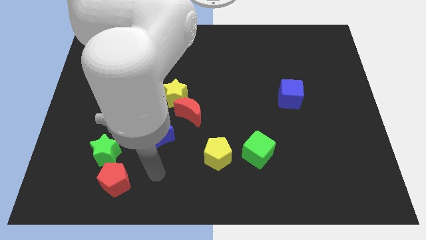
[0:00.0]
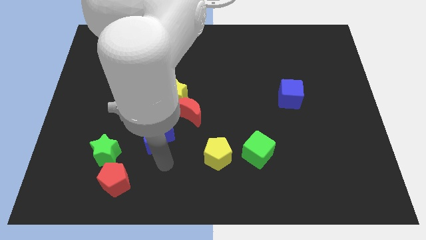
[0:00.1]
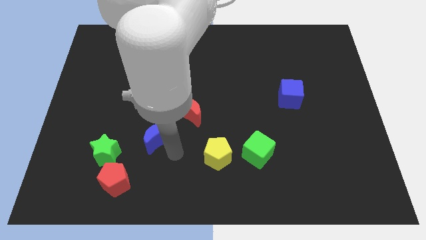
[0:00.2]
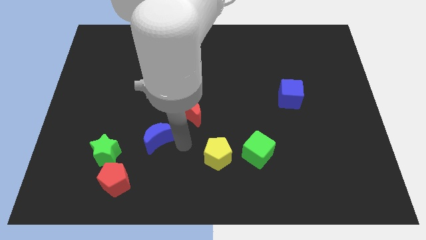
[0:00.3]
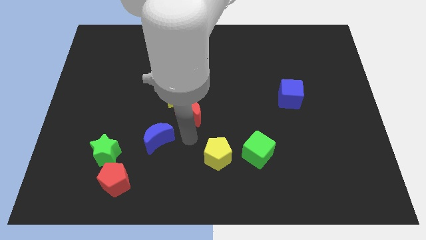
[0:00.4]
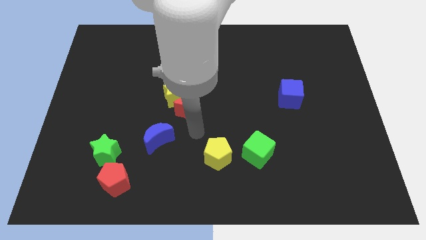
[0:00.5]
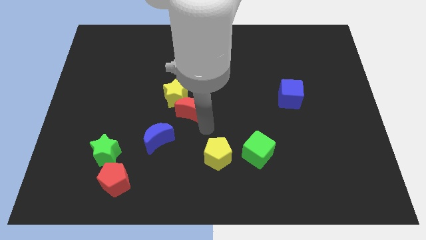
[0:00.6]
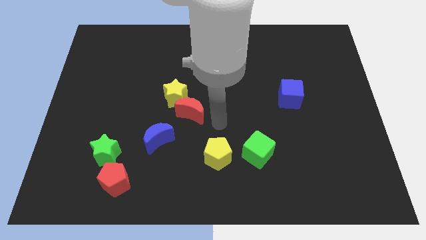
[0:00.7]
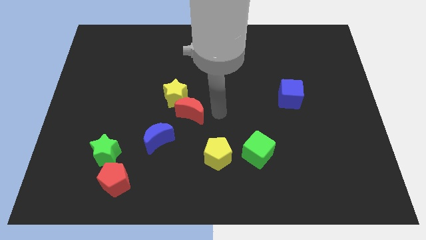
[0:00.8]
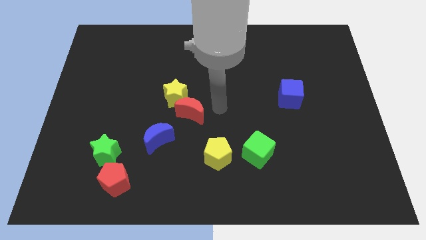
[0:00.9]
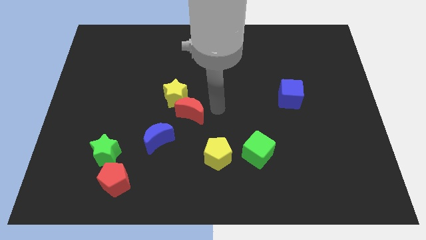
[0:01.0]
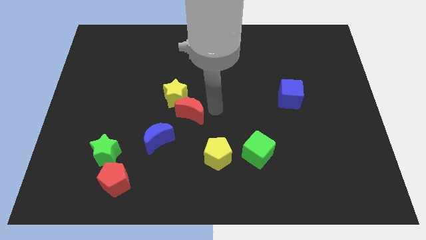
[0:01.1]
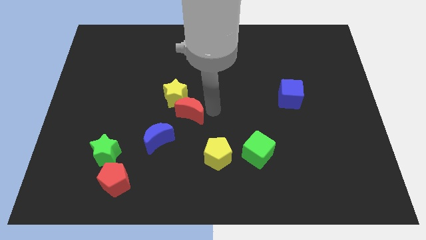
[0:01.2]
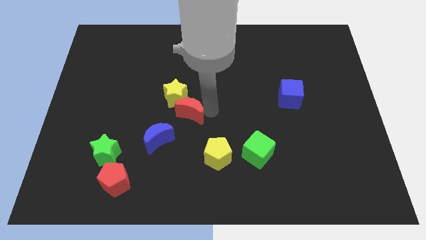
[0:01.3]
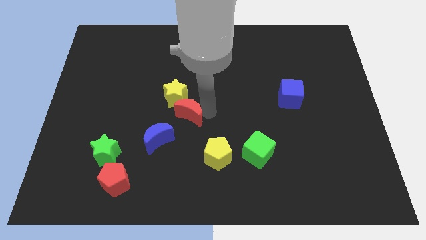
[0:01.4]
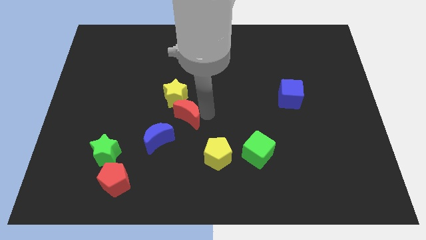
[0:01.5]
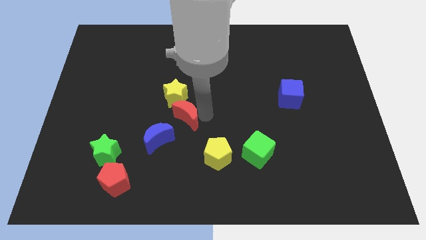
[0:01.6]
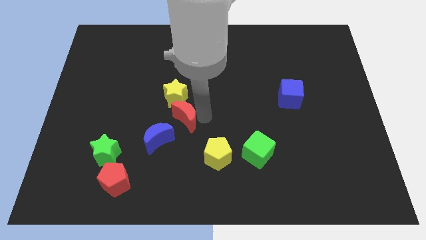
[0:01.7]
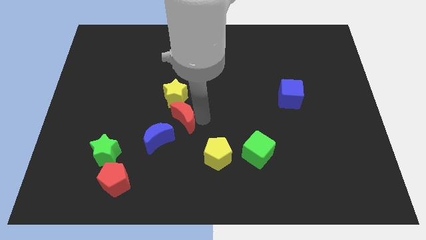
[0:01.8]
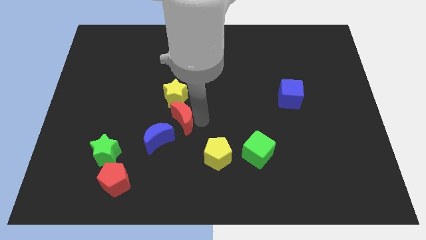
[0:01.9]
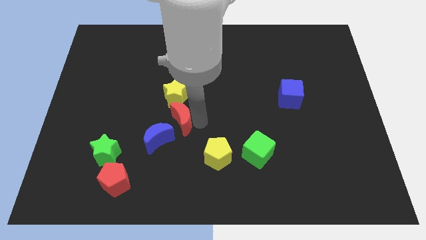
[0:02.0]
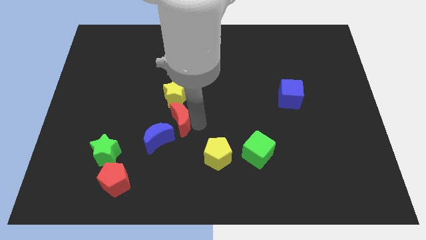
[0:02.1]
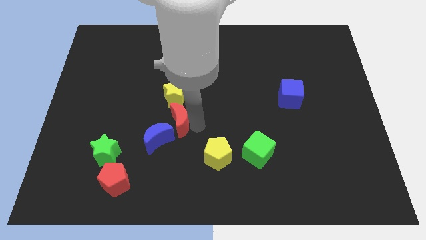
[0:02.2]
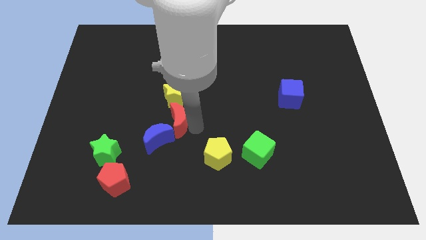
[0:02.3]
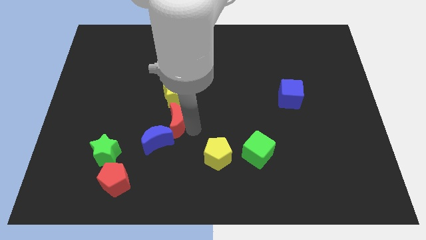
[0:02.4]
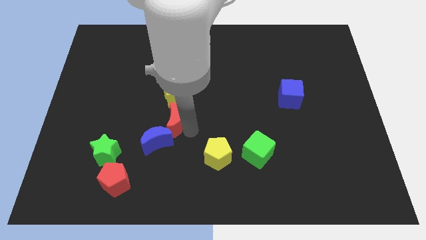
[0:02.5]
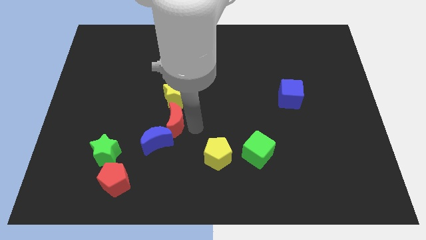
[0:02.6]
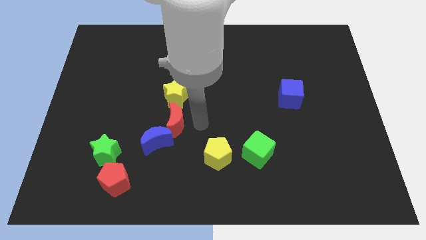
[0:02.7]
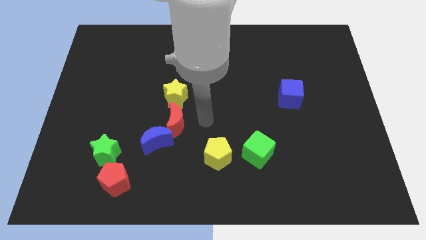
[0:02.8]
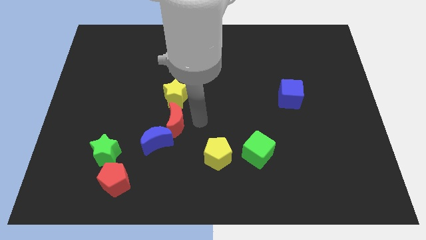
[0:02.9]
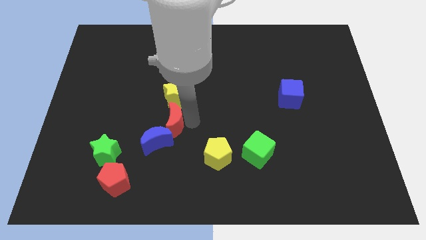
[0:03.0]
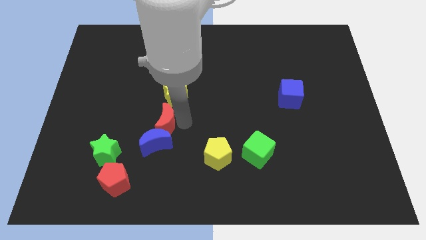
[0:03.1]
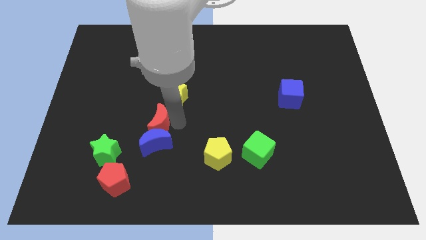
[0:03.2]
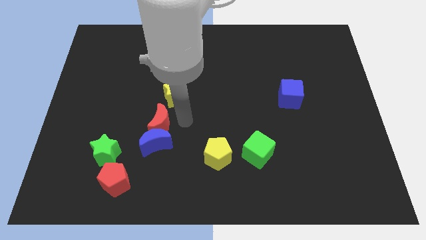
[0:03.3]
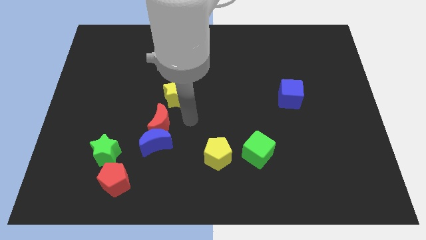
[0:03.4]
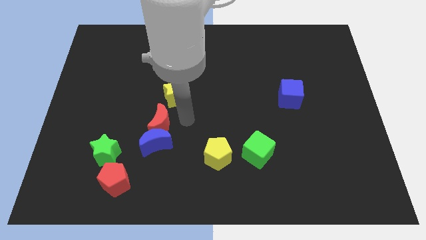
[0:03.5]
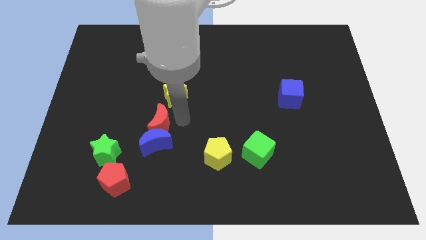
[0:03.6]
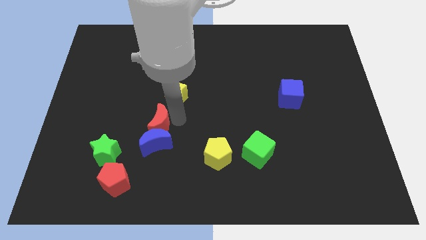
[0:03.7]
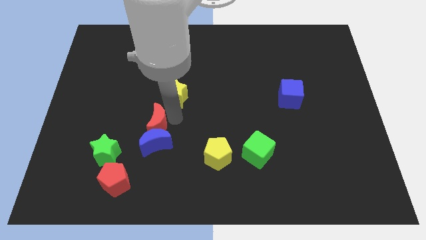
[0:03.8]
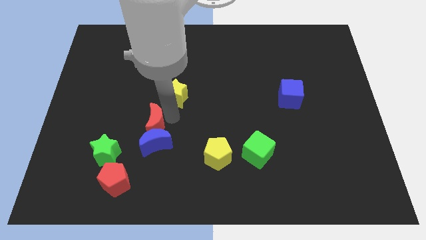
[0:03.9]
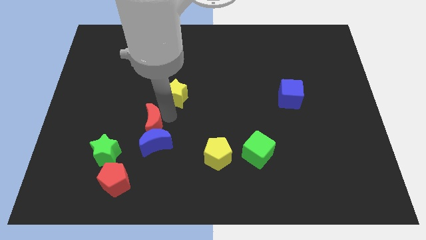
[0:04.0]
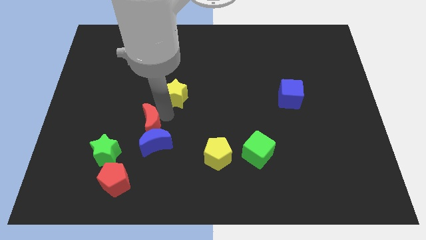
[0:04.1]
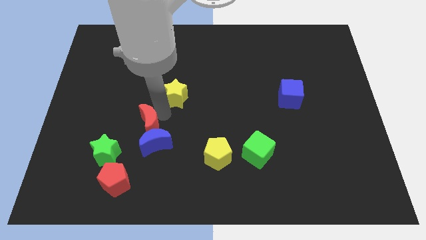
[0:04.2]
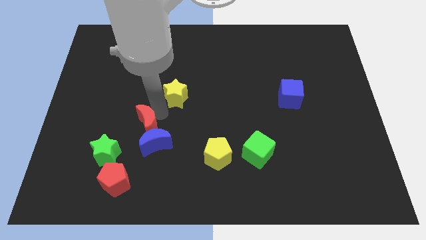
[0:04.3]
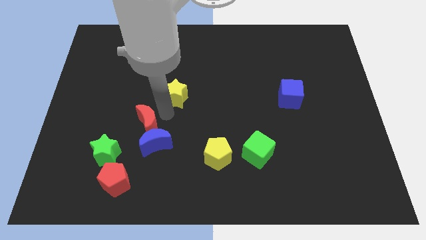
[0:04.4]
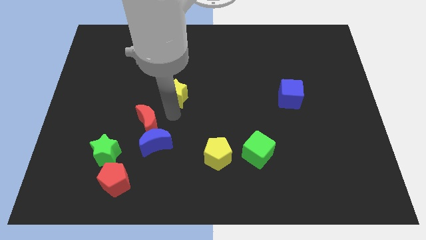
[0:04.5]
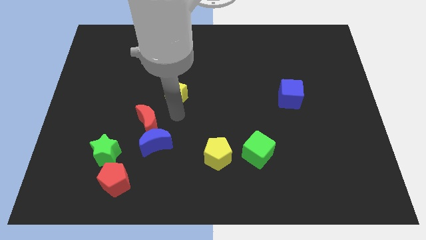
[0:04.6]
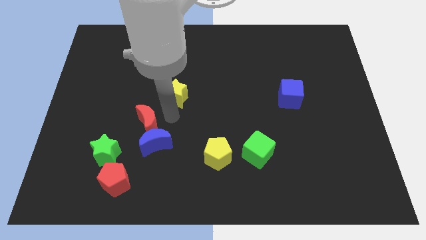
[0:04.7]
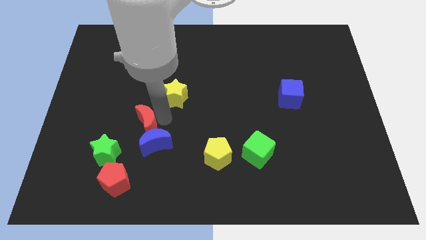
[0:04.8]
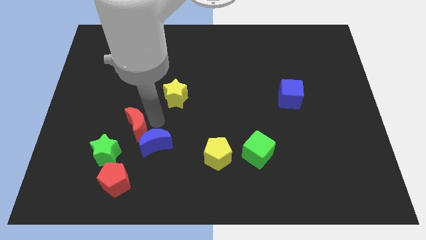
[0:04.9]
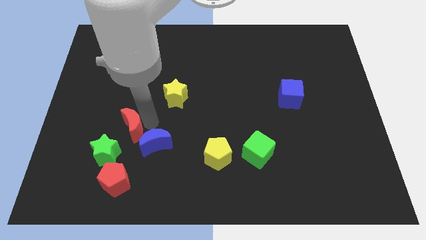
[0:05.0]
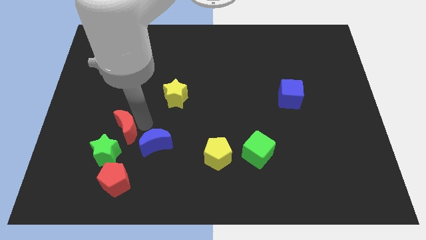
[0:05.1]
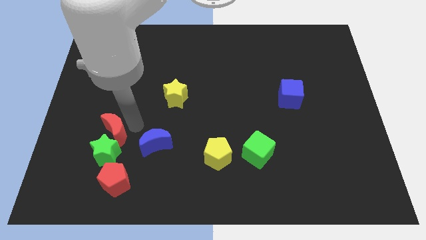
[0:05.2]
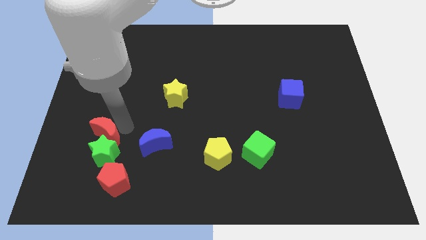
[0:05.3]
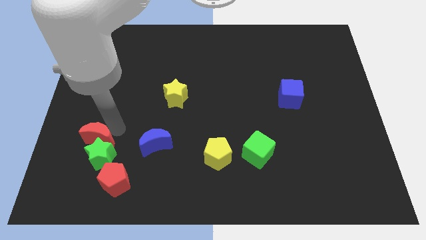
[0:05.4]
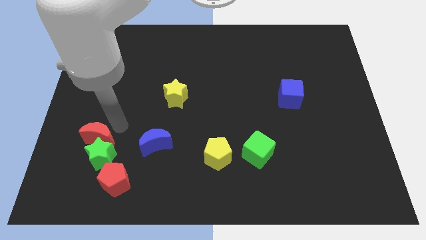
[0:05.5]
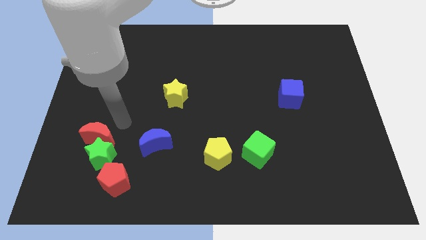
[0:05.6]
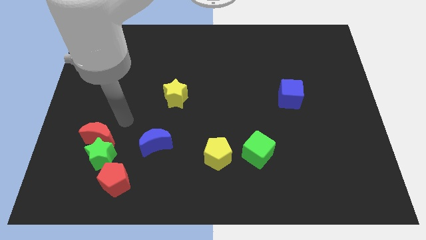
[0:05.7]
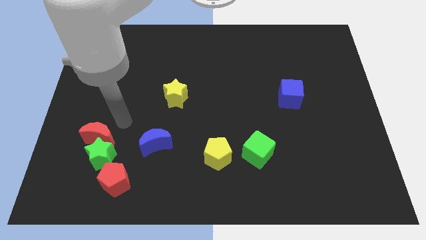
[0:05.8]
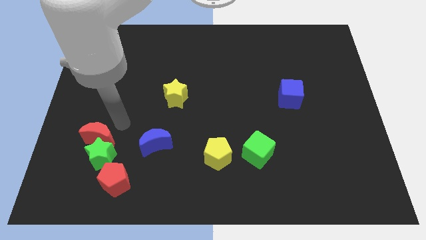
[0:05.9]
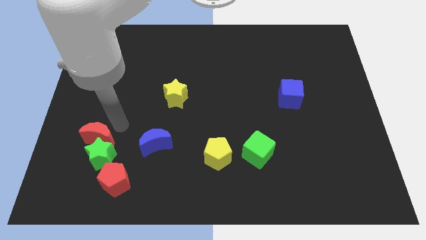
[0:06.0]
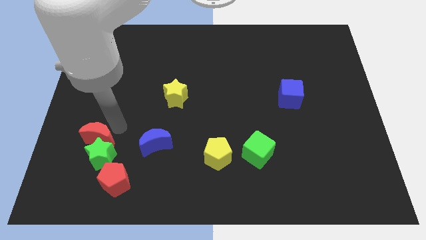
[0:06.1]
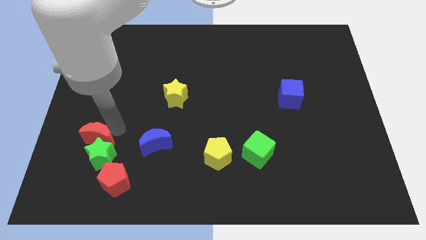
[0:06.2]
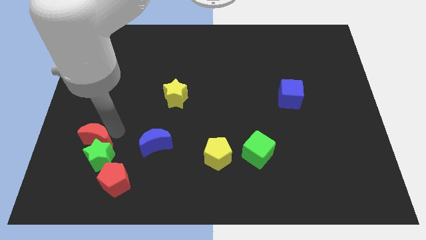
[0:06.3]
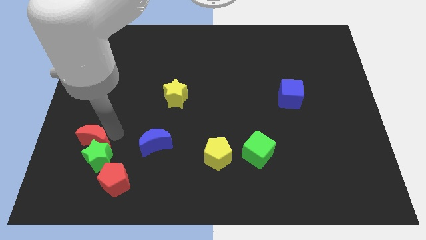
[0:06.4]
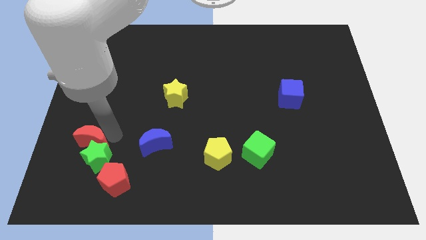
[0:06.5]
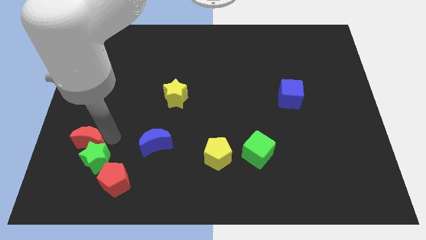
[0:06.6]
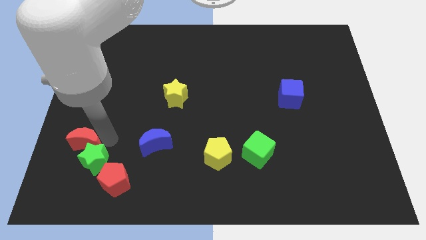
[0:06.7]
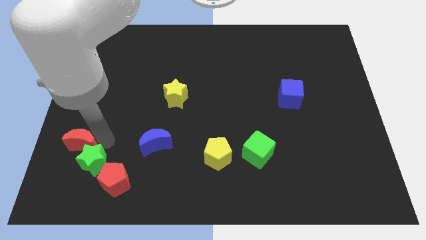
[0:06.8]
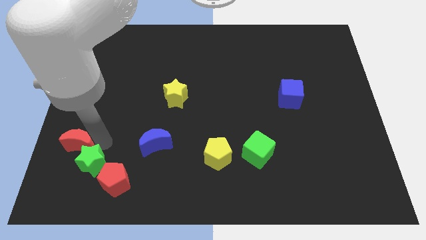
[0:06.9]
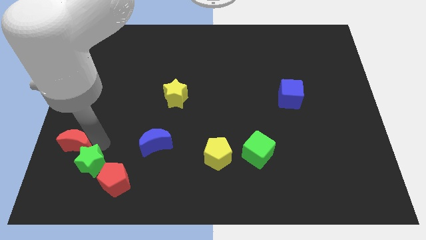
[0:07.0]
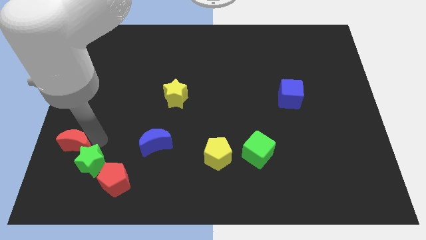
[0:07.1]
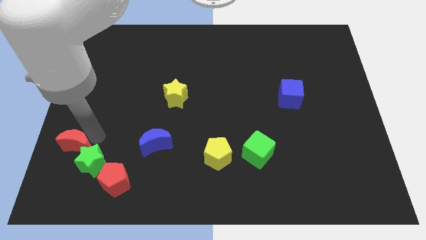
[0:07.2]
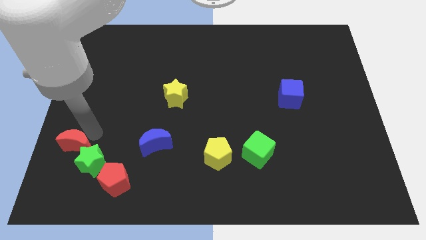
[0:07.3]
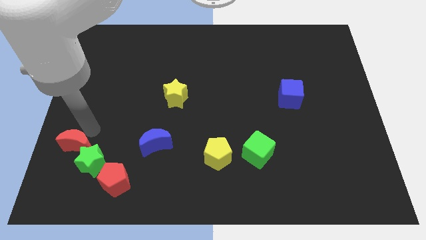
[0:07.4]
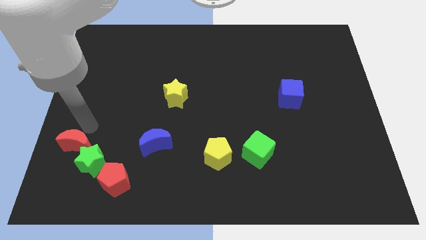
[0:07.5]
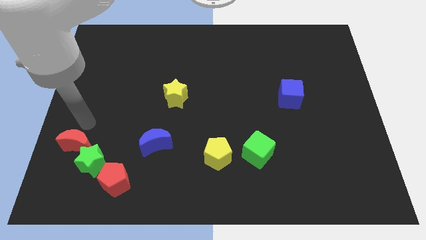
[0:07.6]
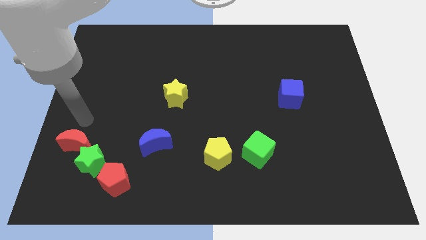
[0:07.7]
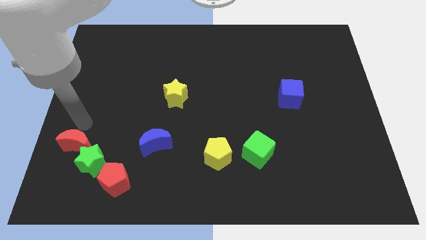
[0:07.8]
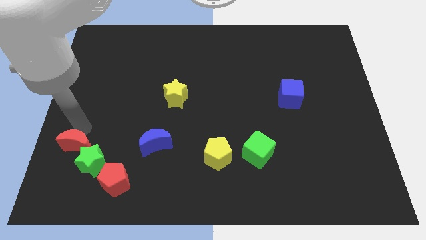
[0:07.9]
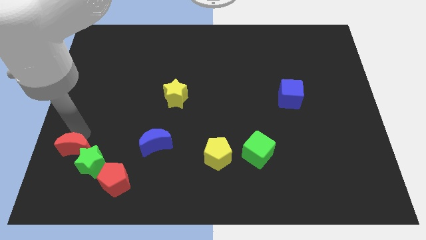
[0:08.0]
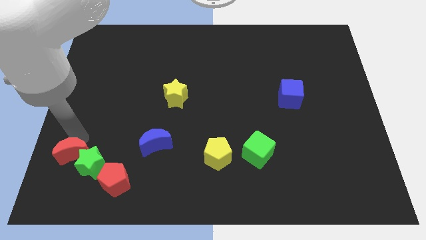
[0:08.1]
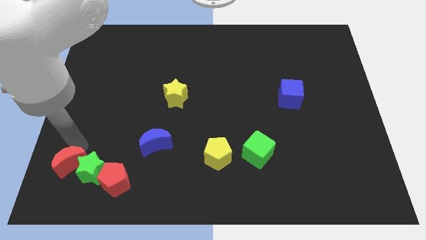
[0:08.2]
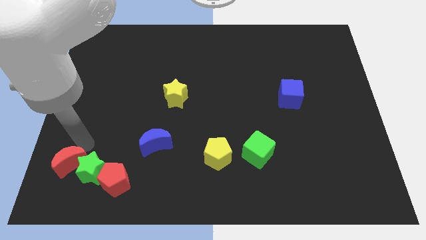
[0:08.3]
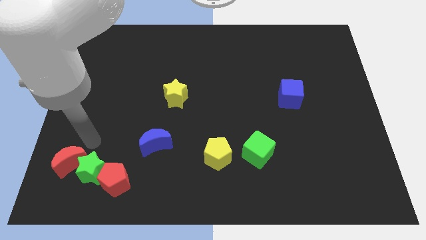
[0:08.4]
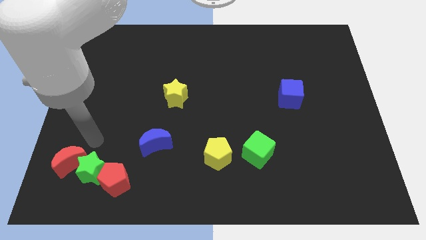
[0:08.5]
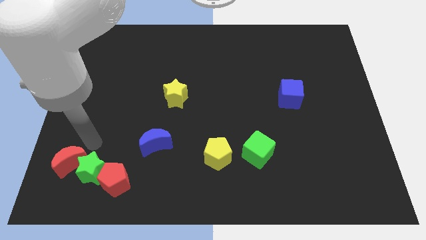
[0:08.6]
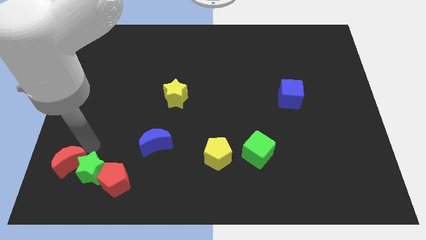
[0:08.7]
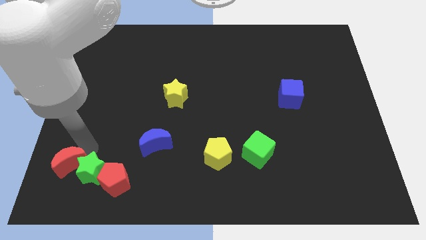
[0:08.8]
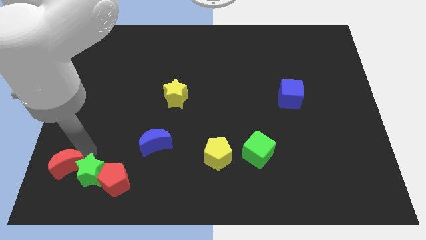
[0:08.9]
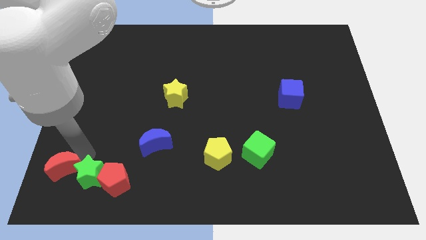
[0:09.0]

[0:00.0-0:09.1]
push the red moon to the bottom left
